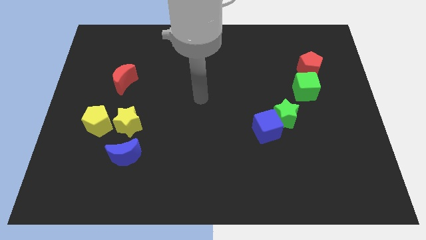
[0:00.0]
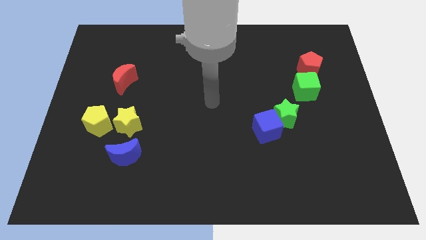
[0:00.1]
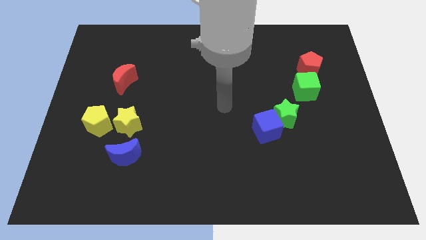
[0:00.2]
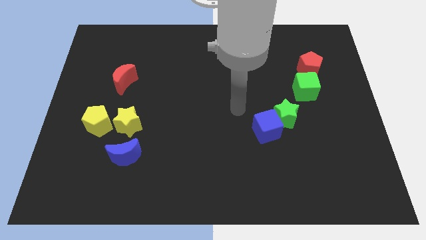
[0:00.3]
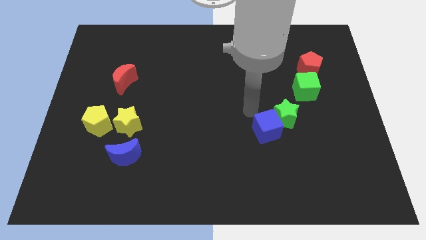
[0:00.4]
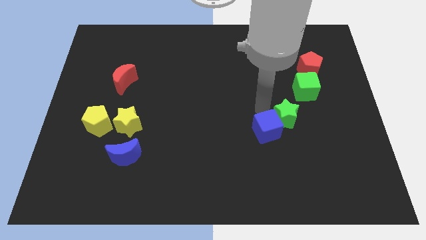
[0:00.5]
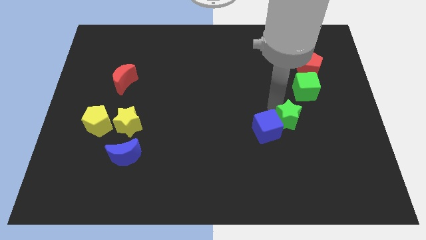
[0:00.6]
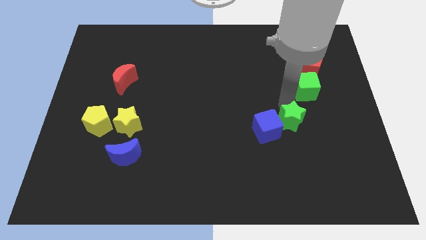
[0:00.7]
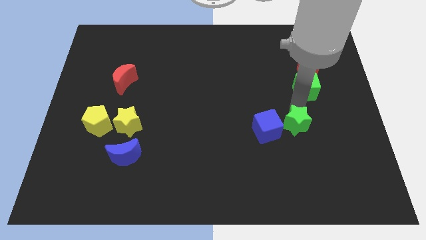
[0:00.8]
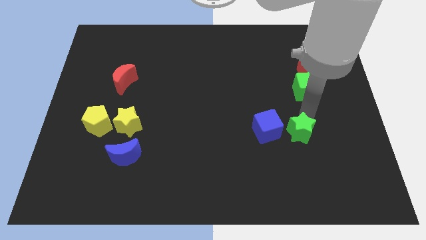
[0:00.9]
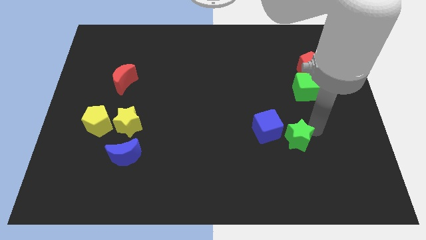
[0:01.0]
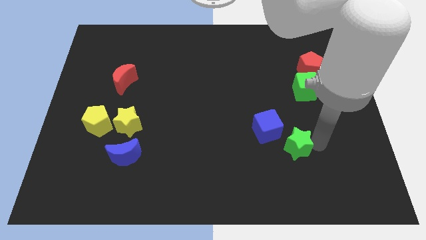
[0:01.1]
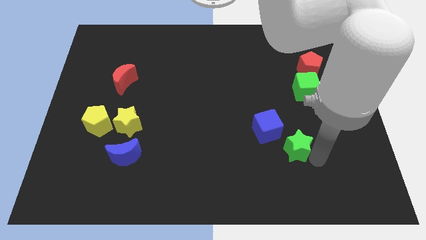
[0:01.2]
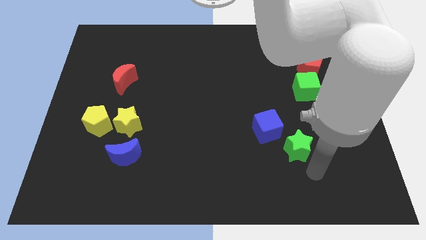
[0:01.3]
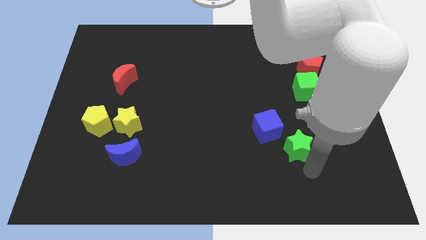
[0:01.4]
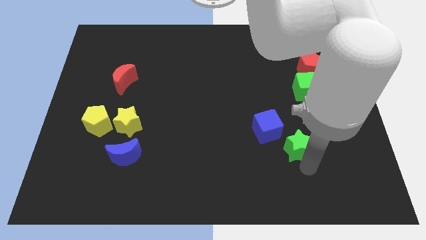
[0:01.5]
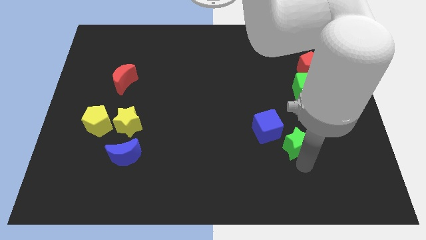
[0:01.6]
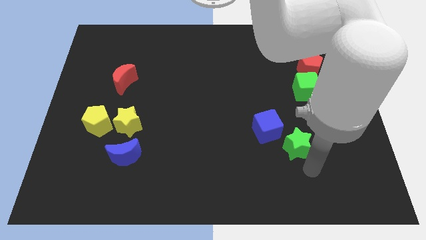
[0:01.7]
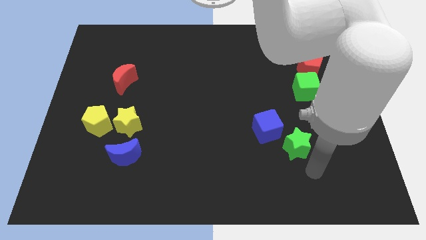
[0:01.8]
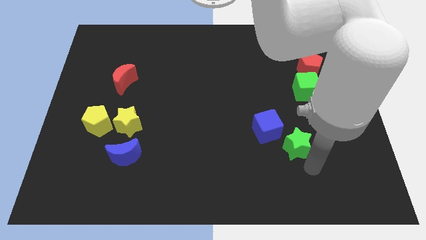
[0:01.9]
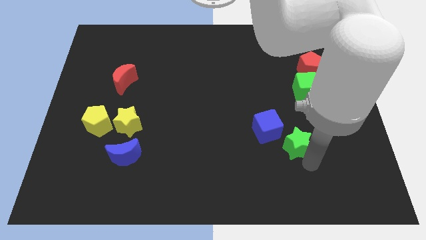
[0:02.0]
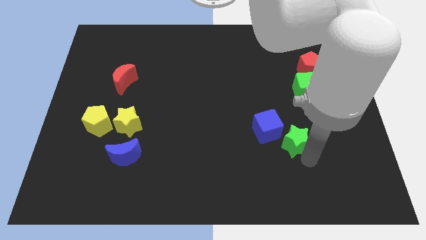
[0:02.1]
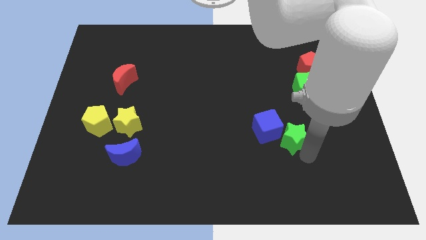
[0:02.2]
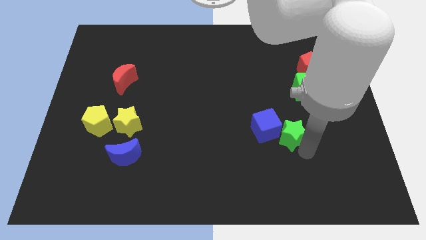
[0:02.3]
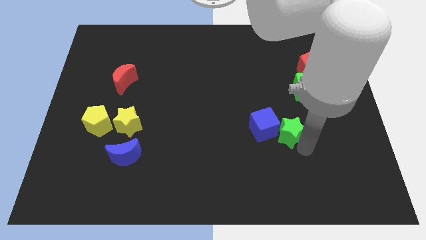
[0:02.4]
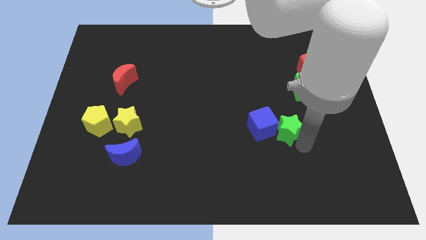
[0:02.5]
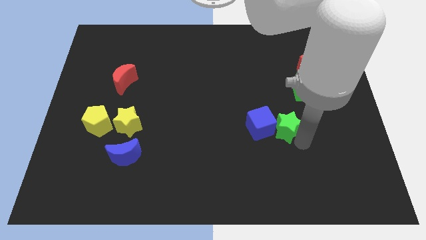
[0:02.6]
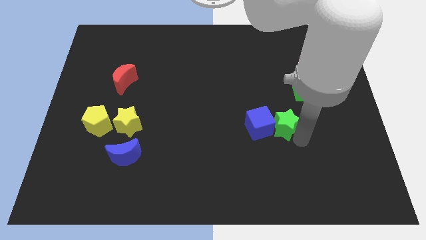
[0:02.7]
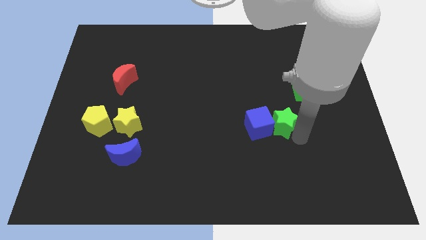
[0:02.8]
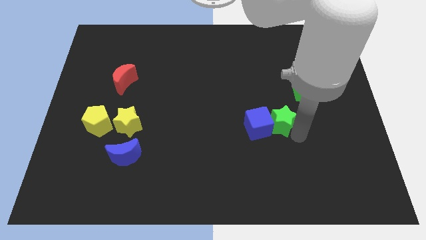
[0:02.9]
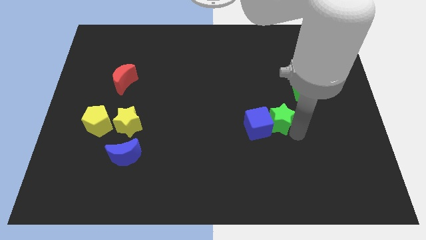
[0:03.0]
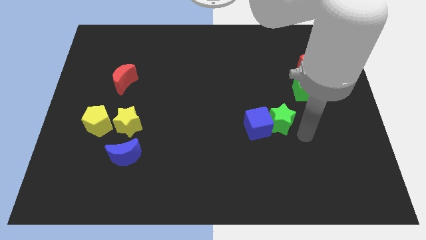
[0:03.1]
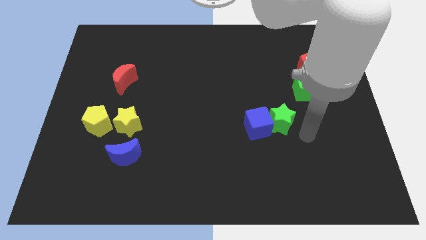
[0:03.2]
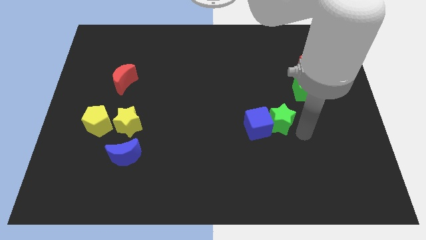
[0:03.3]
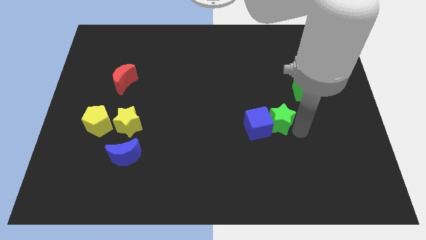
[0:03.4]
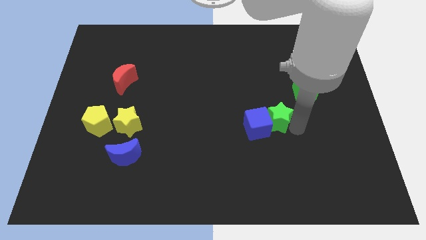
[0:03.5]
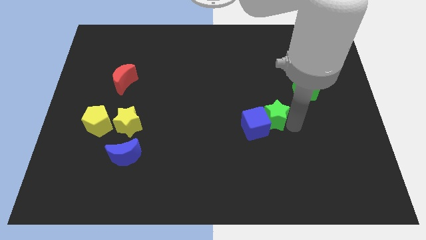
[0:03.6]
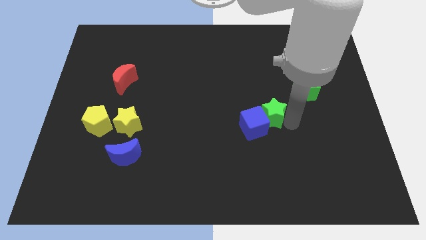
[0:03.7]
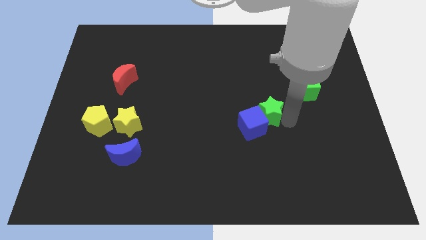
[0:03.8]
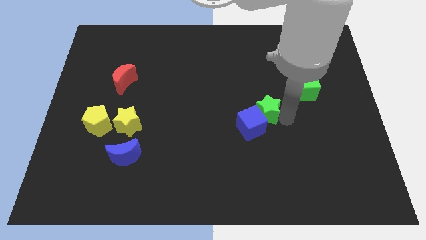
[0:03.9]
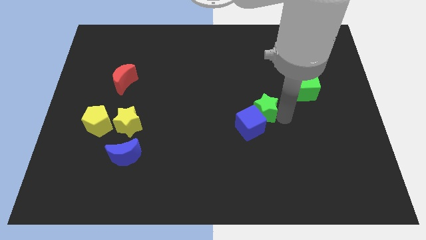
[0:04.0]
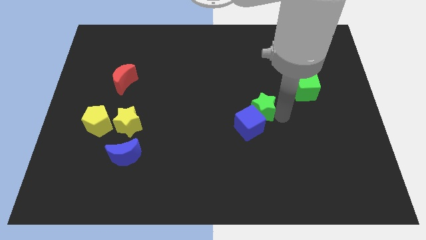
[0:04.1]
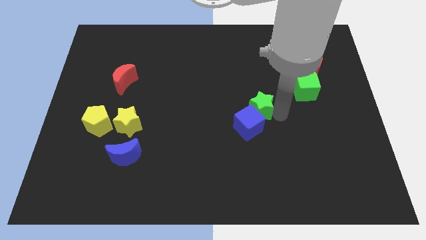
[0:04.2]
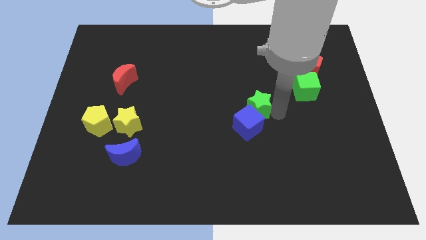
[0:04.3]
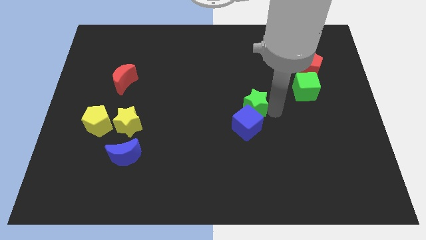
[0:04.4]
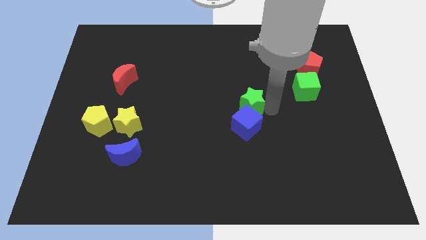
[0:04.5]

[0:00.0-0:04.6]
slightly push the green star to the left

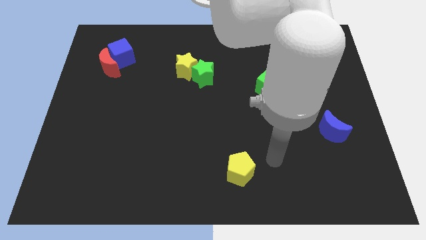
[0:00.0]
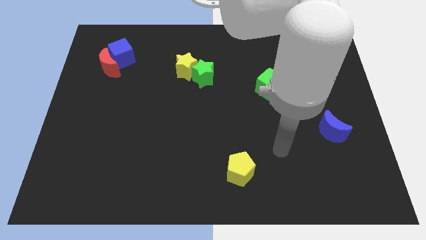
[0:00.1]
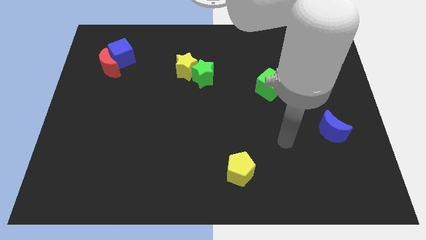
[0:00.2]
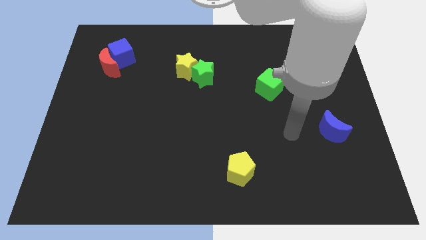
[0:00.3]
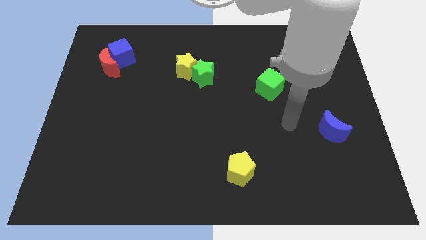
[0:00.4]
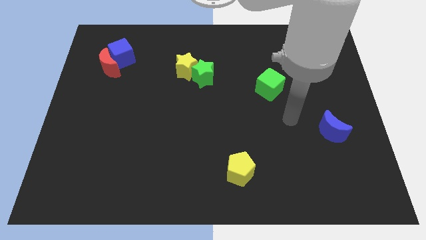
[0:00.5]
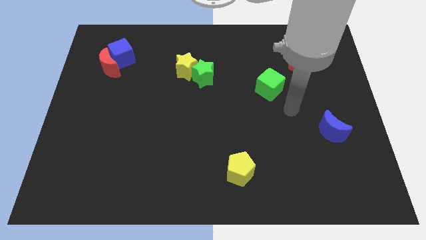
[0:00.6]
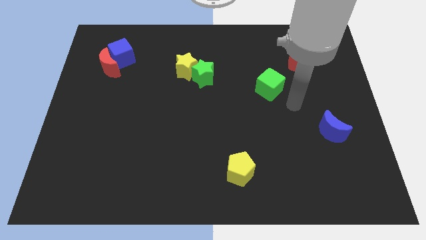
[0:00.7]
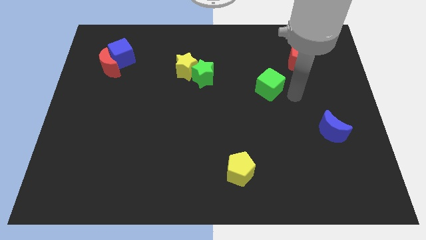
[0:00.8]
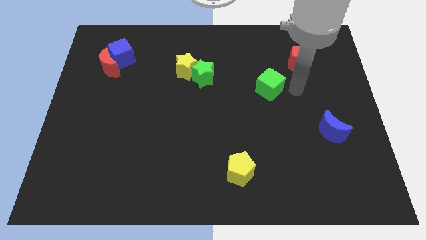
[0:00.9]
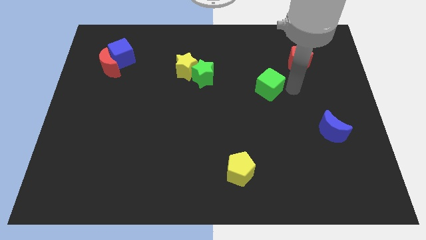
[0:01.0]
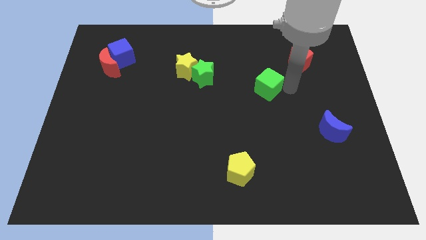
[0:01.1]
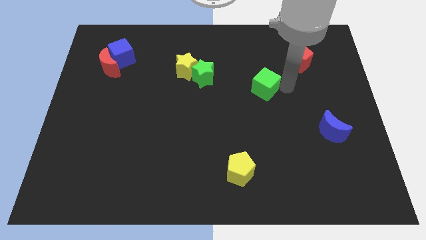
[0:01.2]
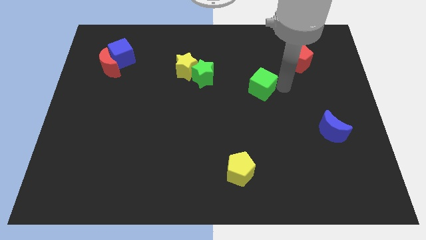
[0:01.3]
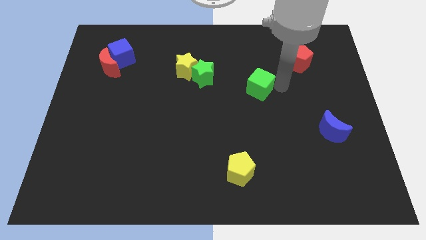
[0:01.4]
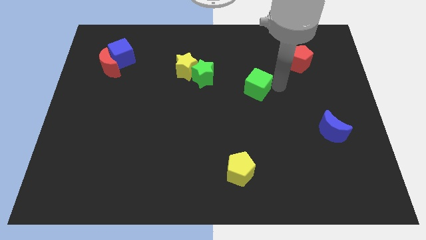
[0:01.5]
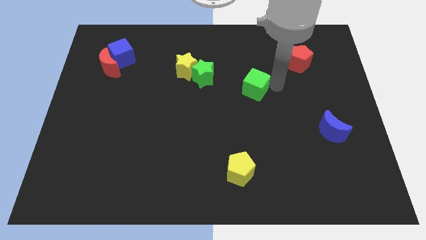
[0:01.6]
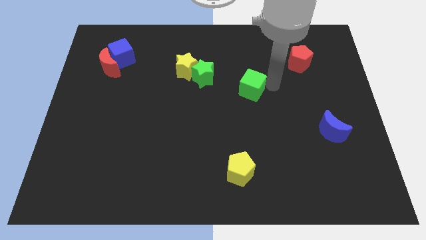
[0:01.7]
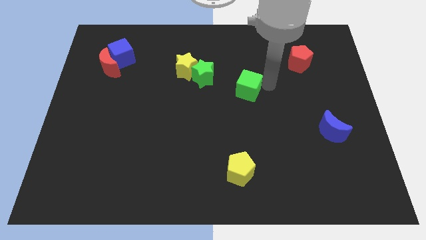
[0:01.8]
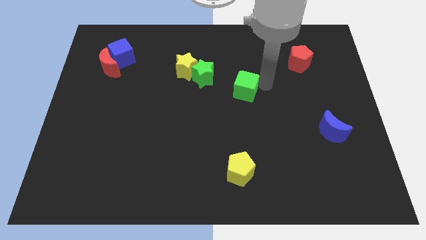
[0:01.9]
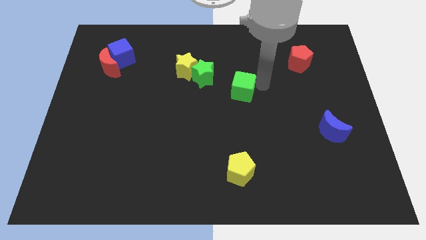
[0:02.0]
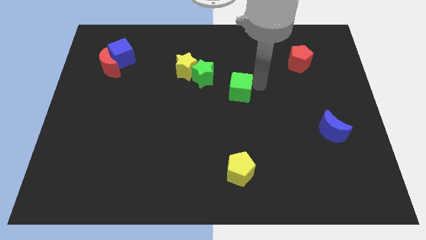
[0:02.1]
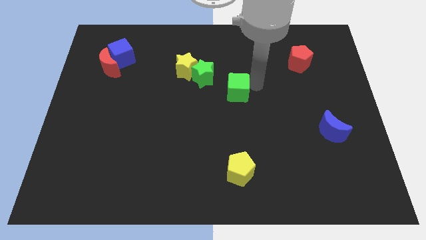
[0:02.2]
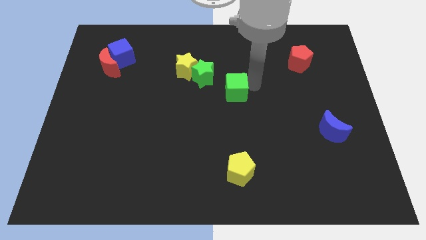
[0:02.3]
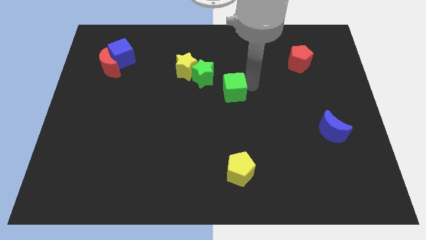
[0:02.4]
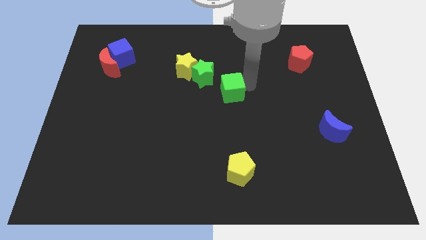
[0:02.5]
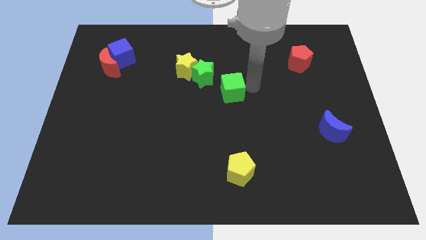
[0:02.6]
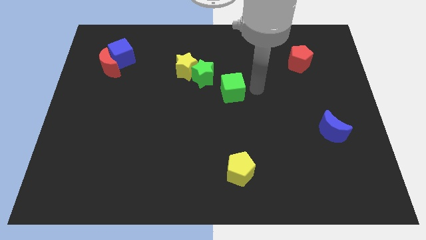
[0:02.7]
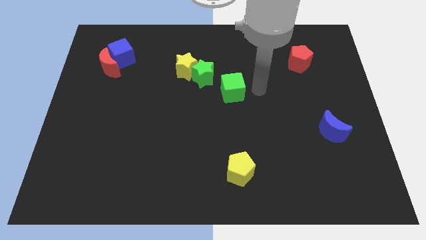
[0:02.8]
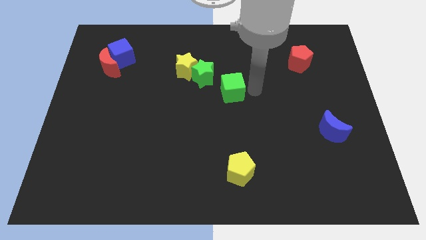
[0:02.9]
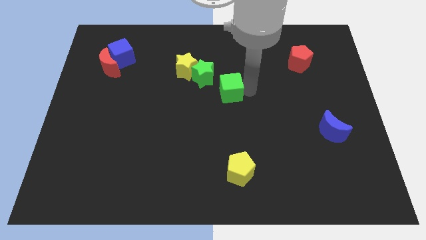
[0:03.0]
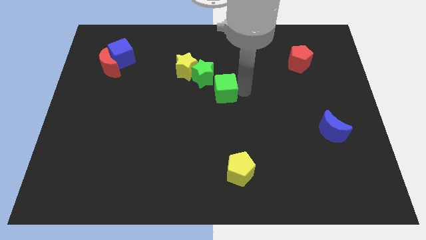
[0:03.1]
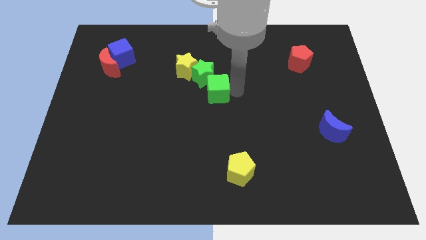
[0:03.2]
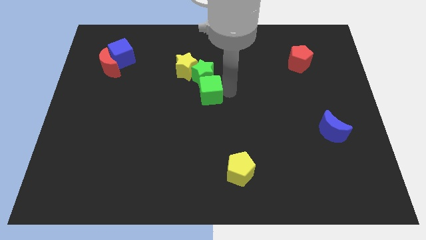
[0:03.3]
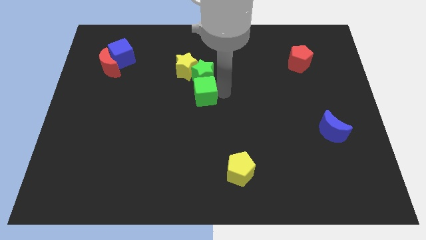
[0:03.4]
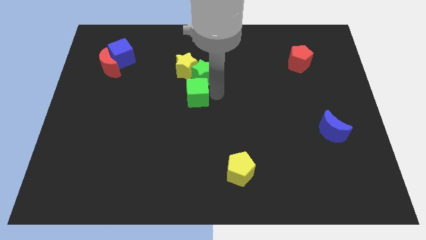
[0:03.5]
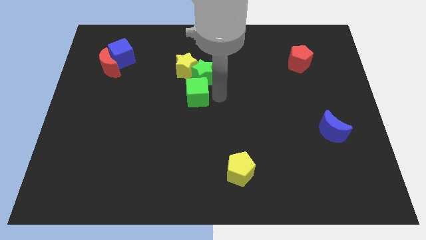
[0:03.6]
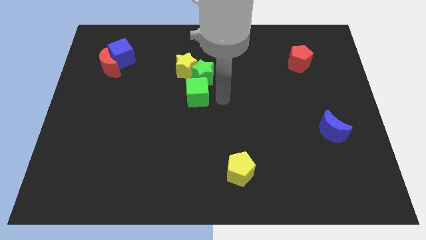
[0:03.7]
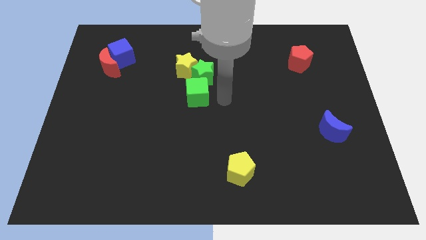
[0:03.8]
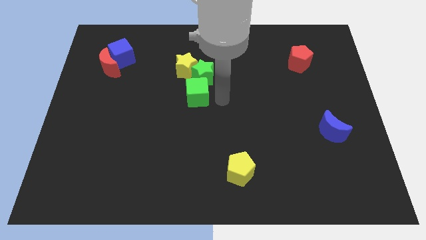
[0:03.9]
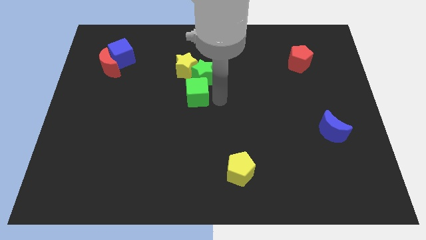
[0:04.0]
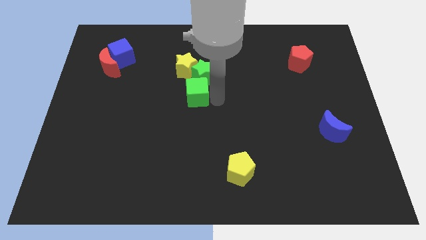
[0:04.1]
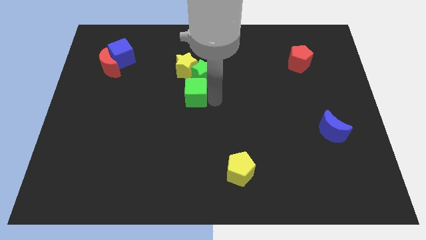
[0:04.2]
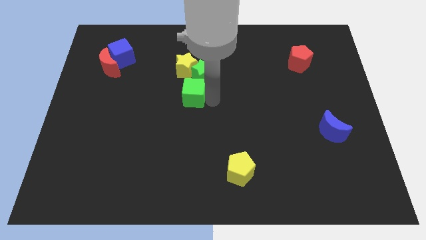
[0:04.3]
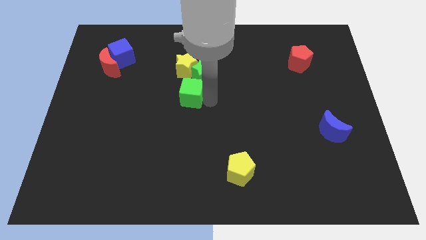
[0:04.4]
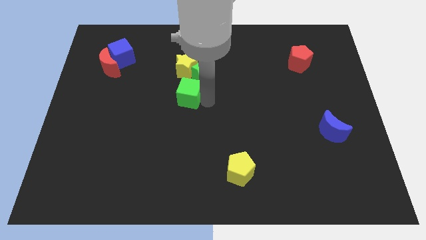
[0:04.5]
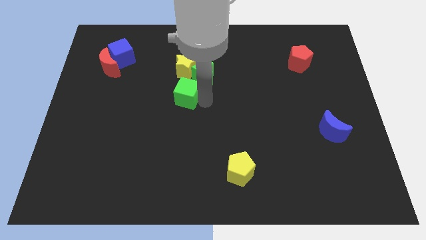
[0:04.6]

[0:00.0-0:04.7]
push the green cube to the left
